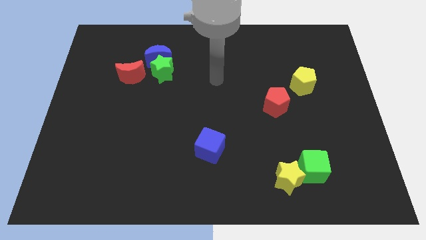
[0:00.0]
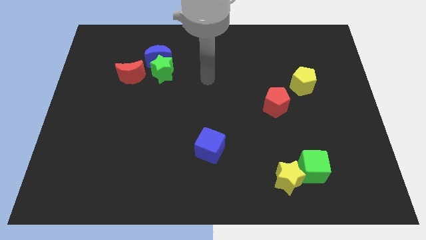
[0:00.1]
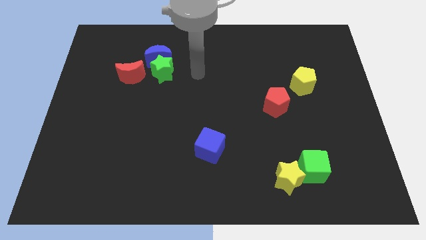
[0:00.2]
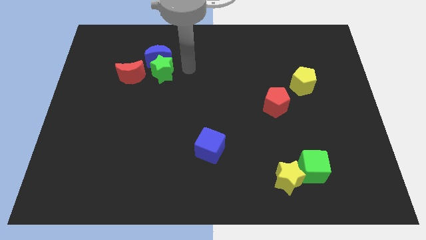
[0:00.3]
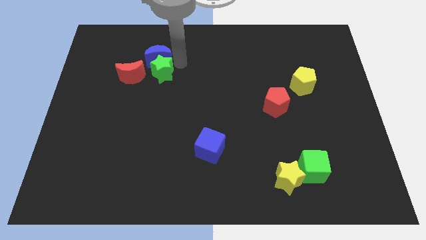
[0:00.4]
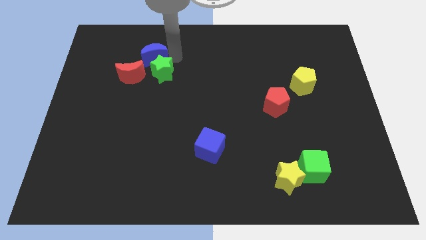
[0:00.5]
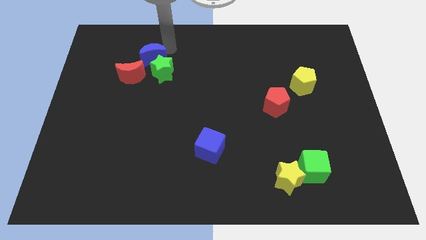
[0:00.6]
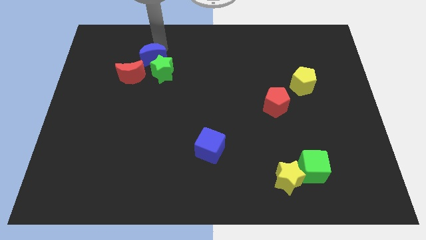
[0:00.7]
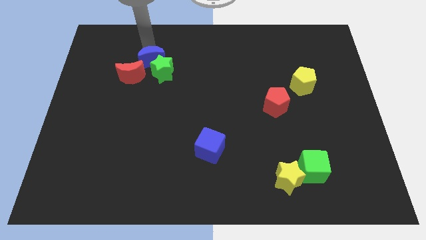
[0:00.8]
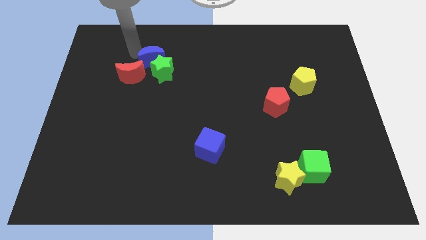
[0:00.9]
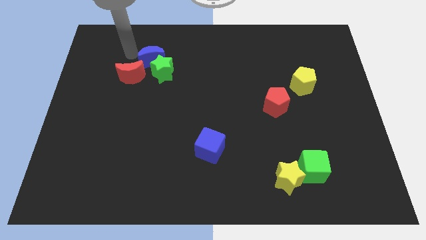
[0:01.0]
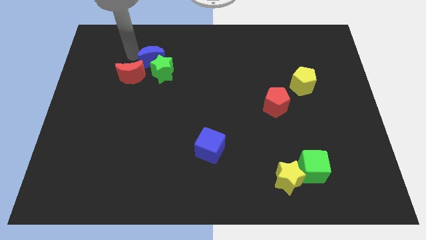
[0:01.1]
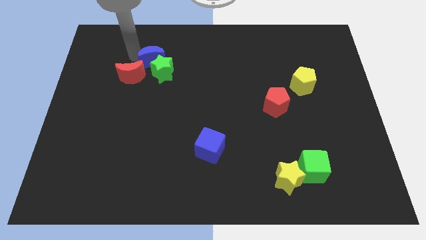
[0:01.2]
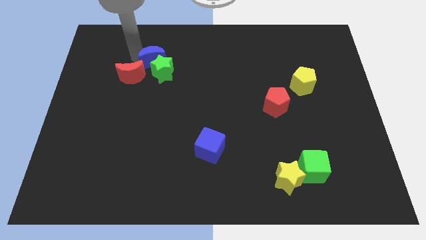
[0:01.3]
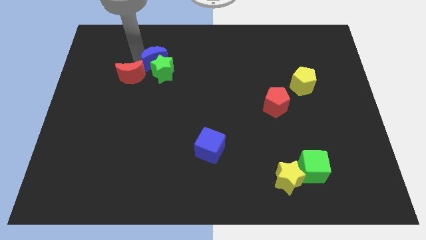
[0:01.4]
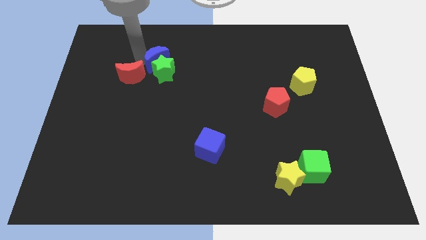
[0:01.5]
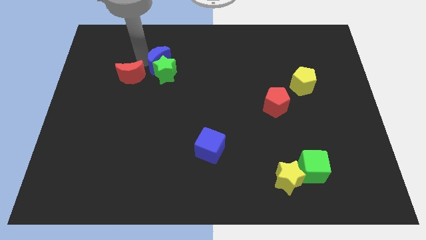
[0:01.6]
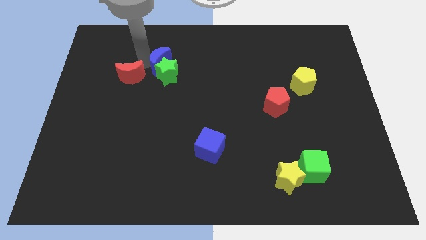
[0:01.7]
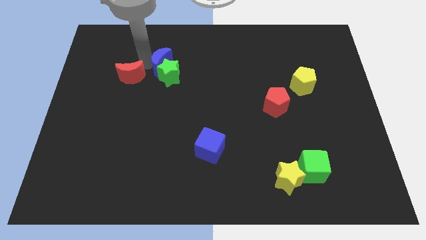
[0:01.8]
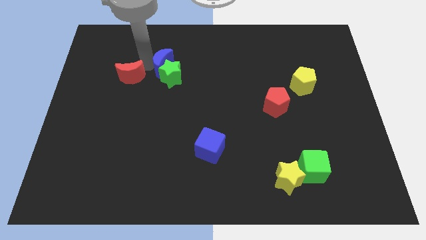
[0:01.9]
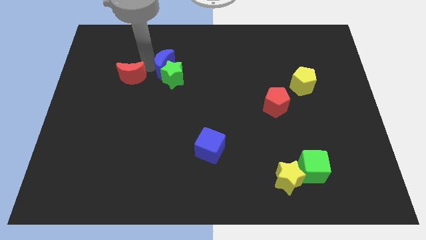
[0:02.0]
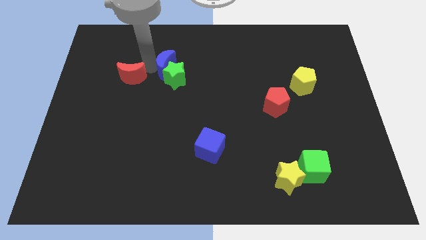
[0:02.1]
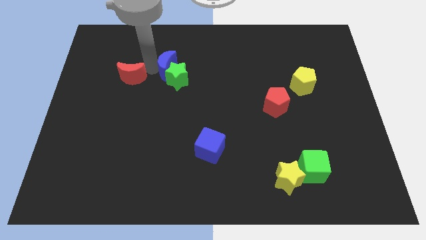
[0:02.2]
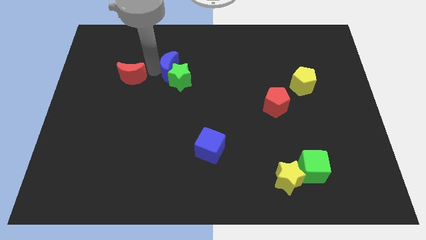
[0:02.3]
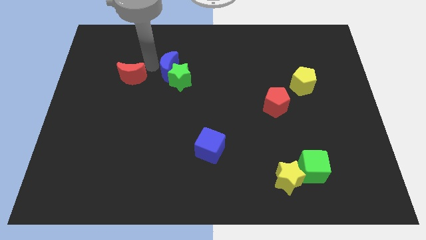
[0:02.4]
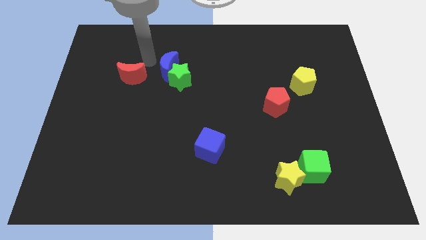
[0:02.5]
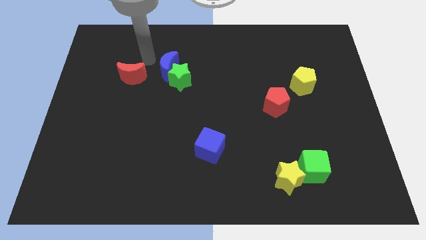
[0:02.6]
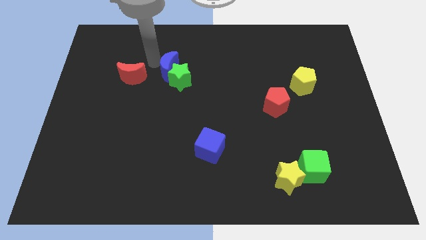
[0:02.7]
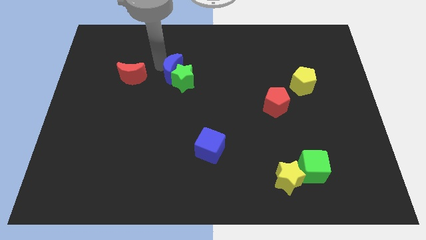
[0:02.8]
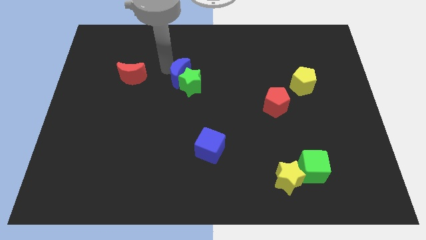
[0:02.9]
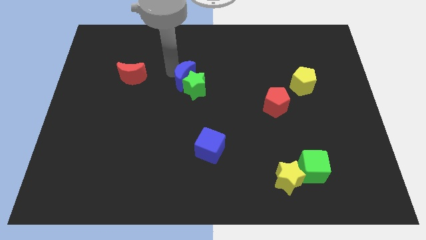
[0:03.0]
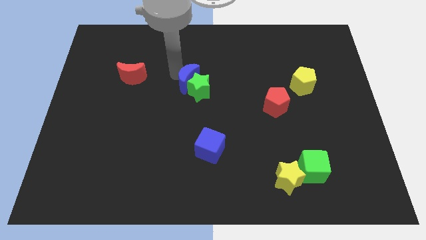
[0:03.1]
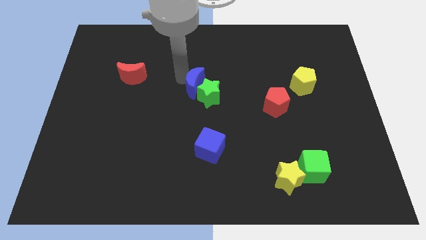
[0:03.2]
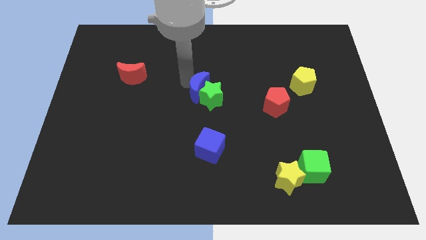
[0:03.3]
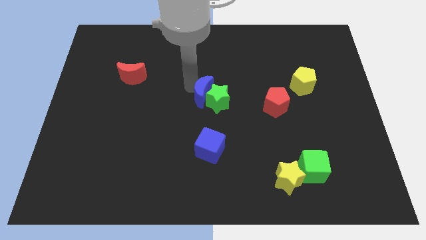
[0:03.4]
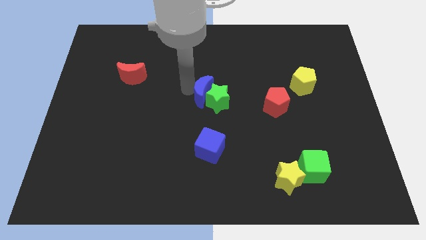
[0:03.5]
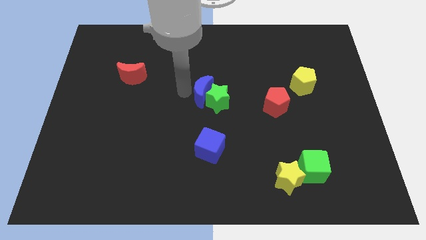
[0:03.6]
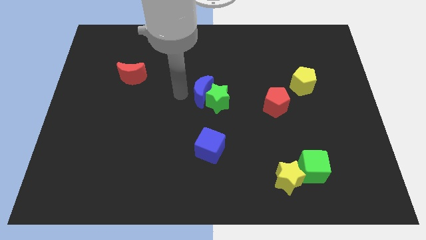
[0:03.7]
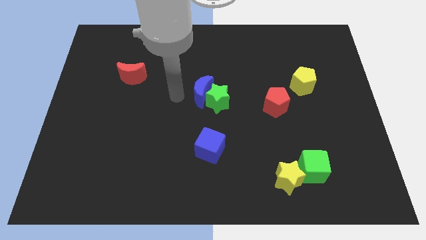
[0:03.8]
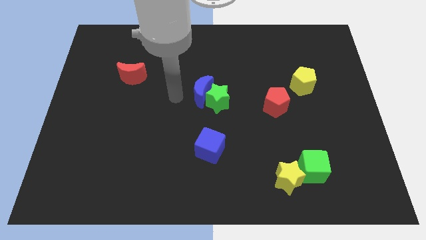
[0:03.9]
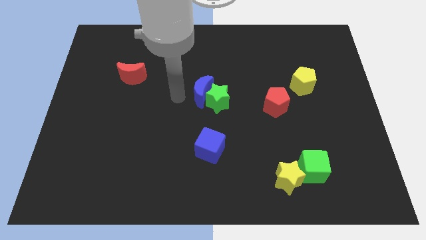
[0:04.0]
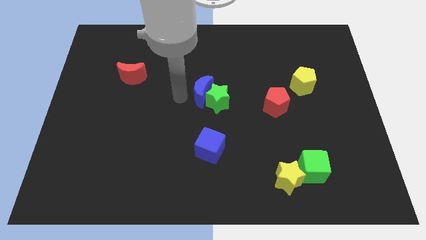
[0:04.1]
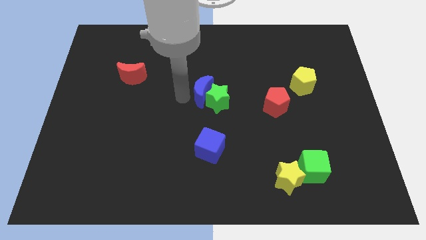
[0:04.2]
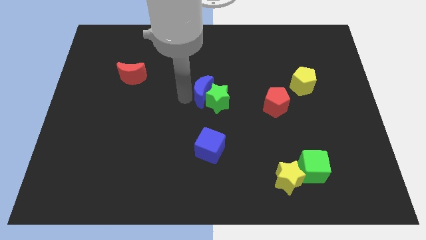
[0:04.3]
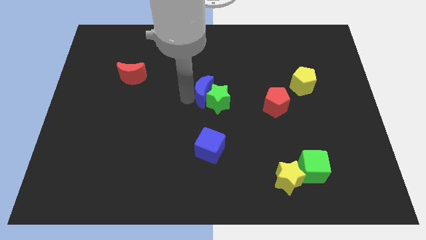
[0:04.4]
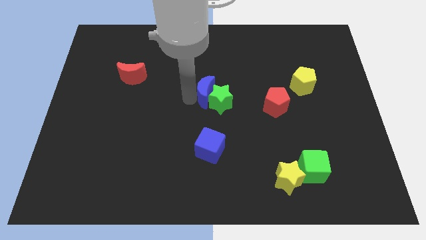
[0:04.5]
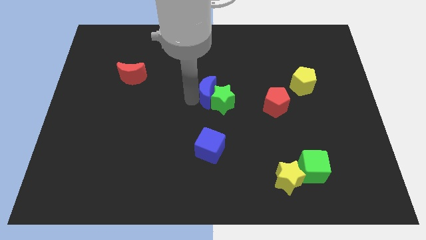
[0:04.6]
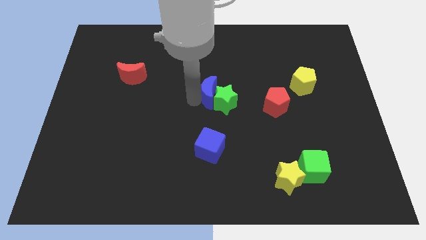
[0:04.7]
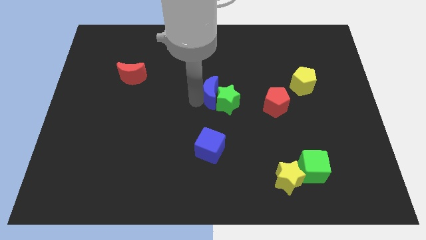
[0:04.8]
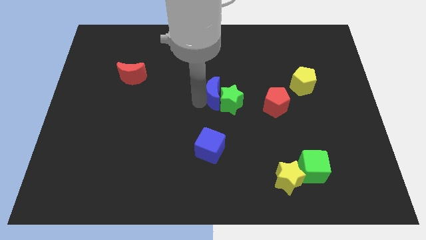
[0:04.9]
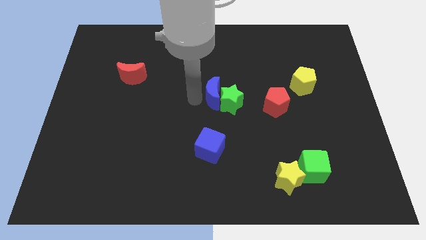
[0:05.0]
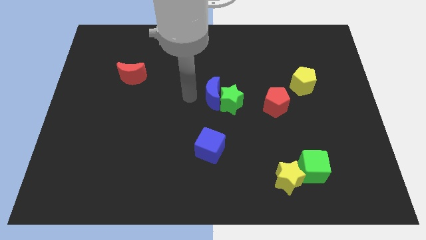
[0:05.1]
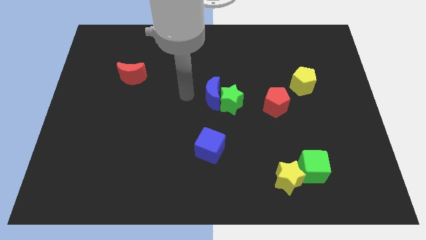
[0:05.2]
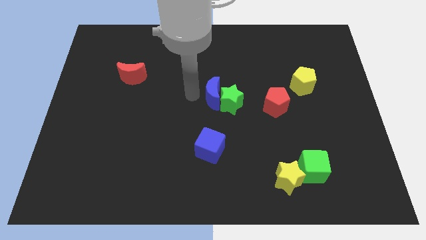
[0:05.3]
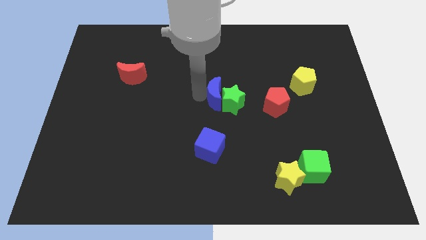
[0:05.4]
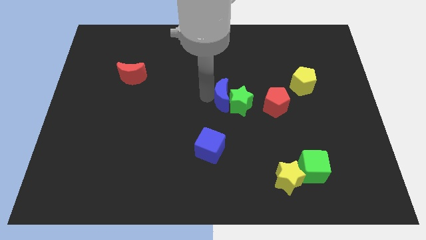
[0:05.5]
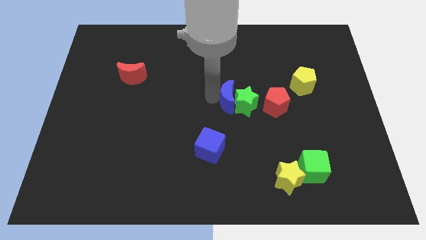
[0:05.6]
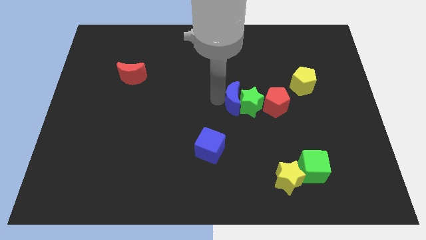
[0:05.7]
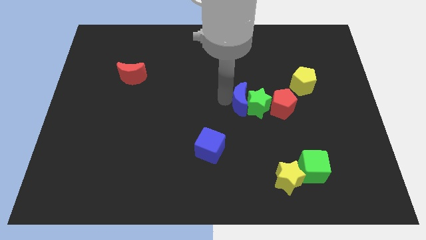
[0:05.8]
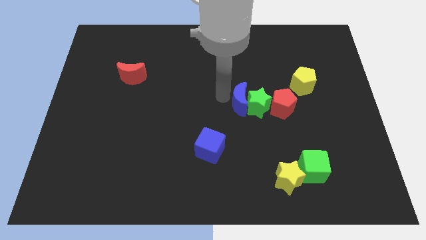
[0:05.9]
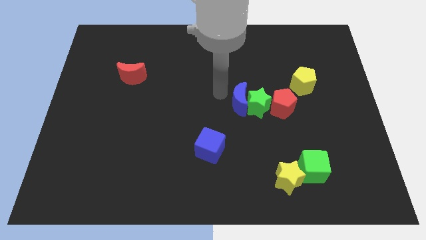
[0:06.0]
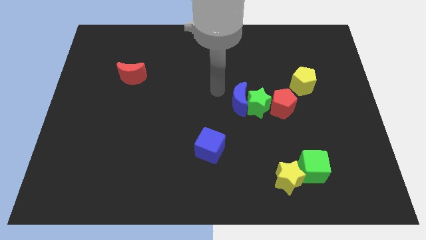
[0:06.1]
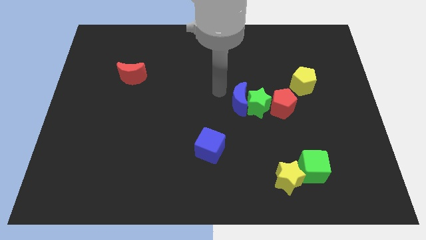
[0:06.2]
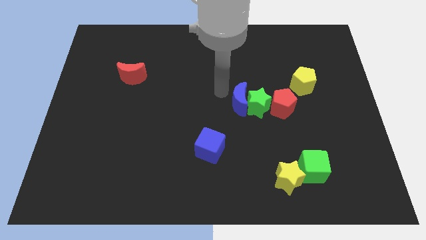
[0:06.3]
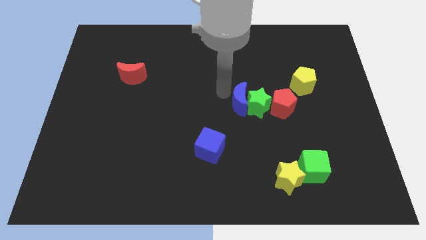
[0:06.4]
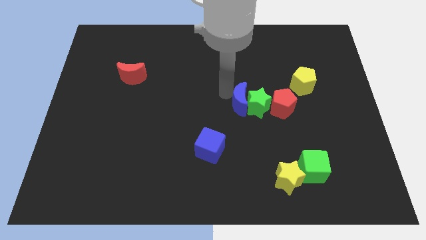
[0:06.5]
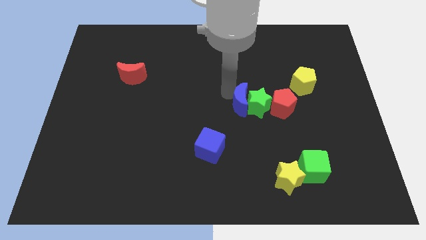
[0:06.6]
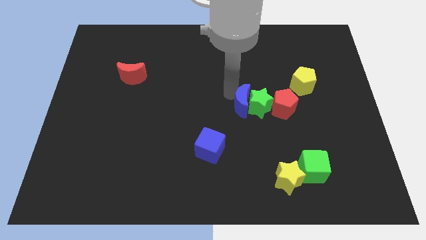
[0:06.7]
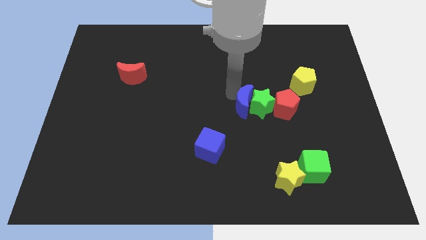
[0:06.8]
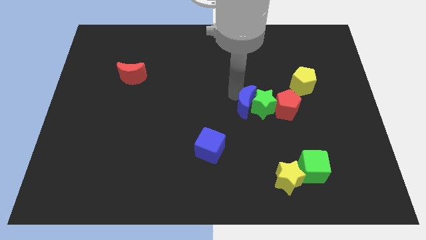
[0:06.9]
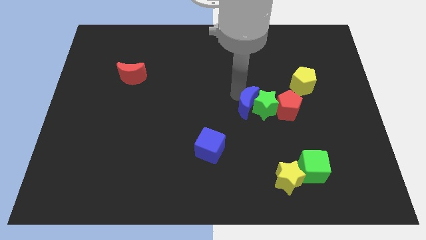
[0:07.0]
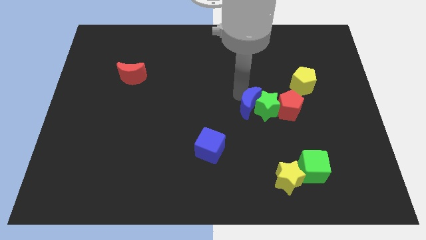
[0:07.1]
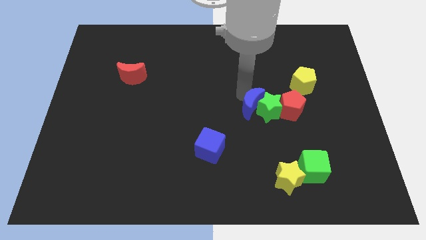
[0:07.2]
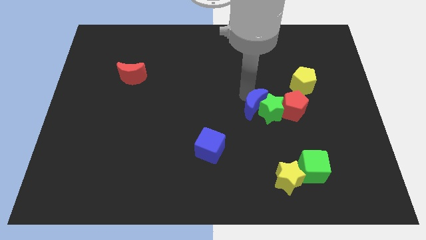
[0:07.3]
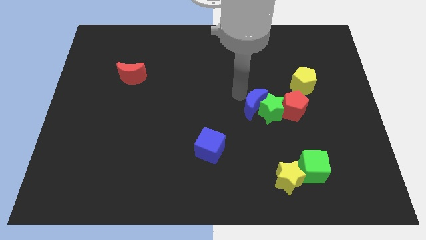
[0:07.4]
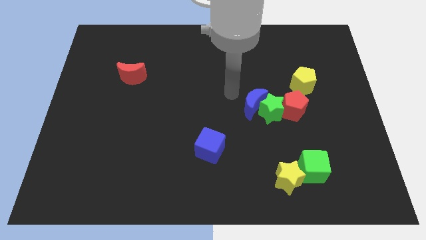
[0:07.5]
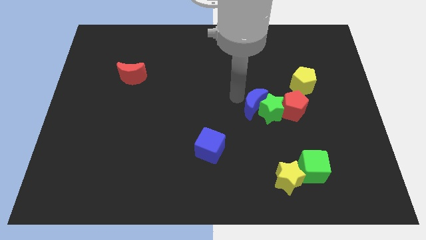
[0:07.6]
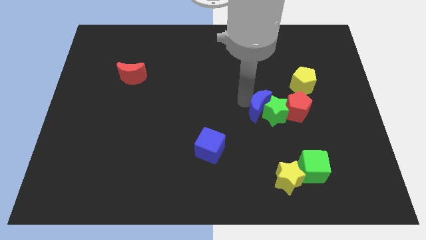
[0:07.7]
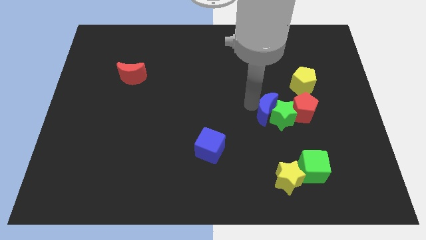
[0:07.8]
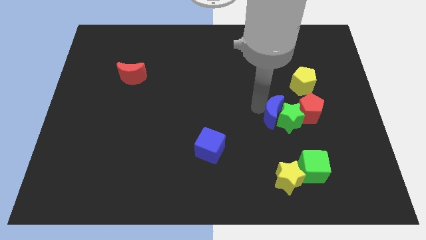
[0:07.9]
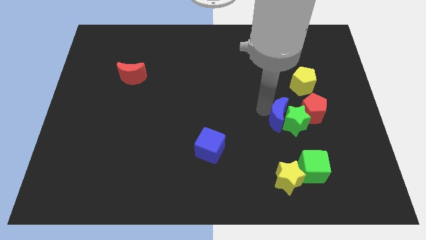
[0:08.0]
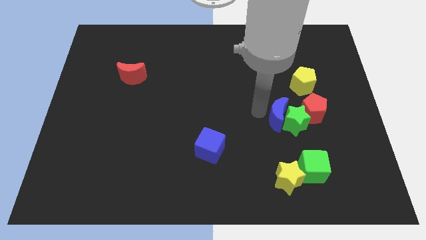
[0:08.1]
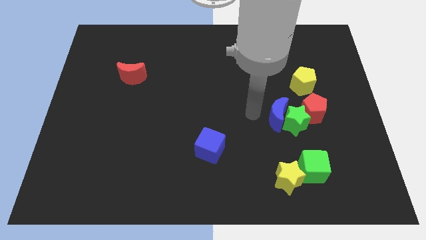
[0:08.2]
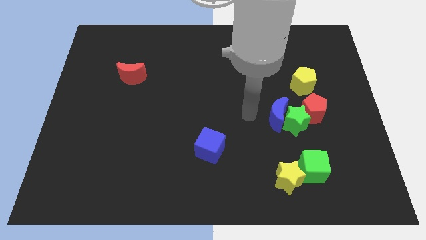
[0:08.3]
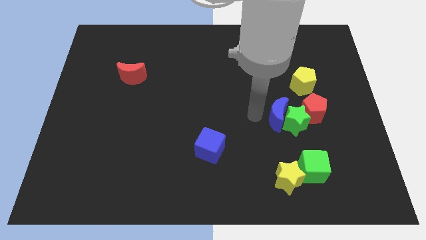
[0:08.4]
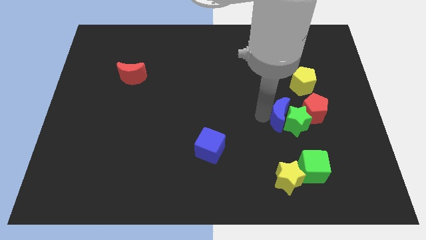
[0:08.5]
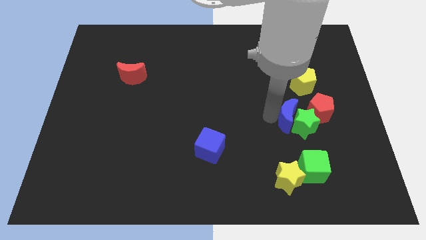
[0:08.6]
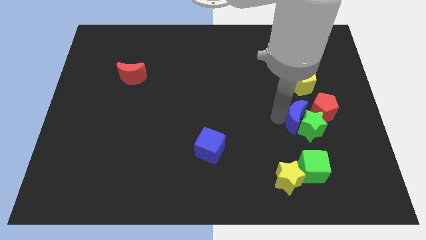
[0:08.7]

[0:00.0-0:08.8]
put the blue moon below the yellow pentagon
